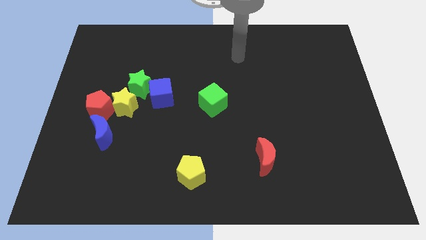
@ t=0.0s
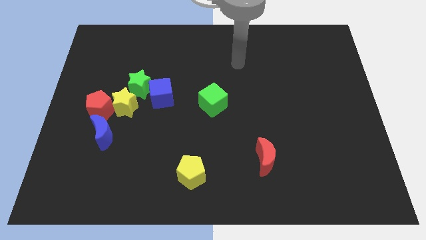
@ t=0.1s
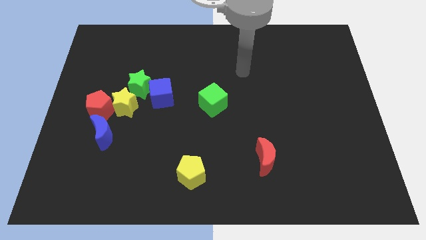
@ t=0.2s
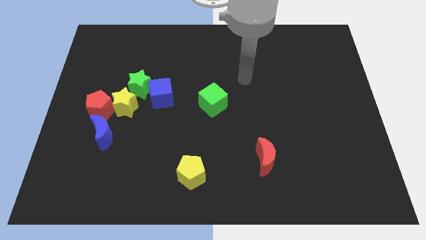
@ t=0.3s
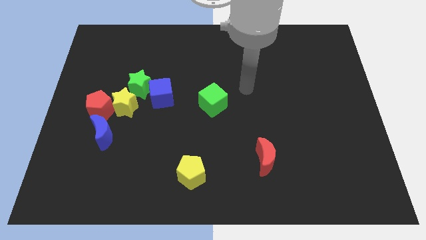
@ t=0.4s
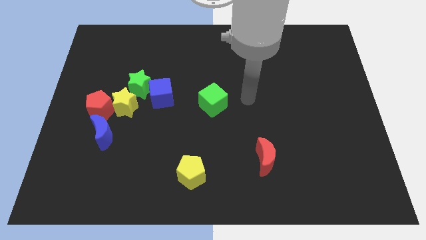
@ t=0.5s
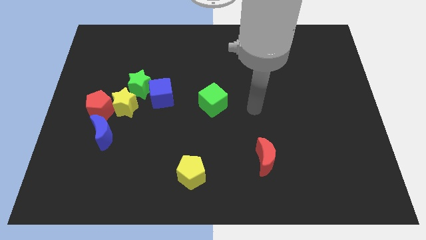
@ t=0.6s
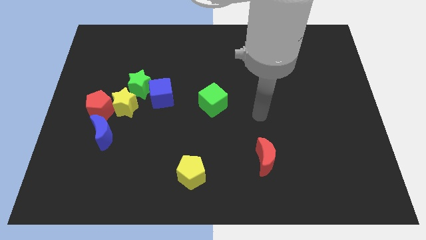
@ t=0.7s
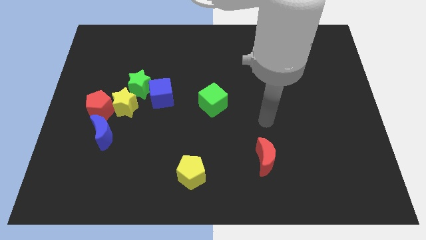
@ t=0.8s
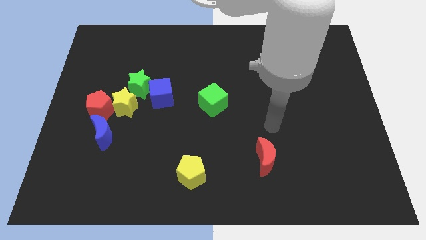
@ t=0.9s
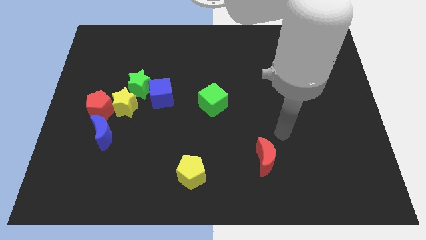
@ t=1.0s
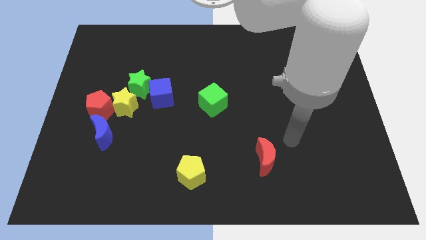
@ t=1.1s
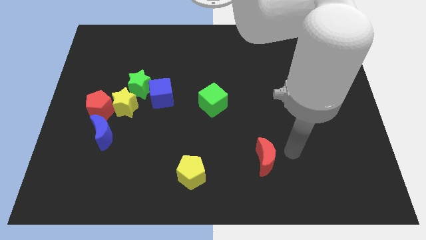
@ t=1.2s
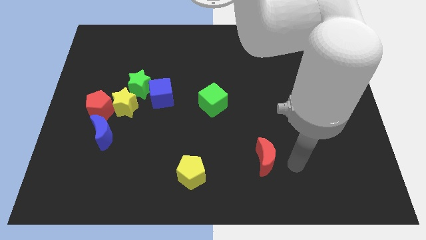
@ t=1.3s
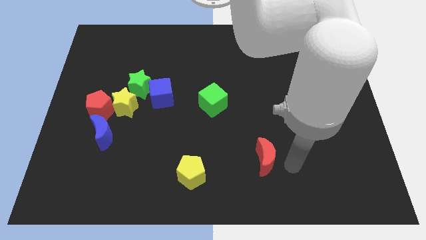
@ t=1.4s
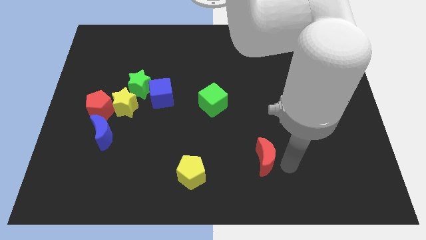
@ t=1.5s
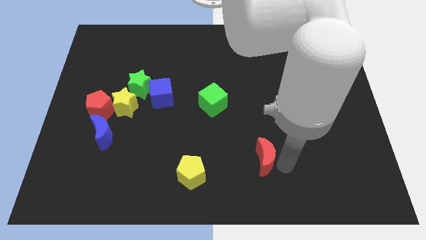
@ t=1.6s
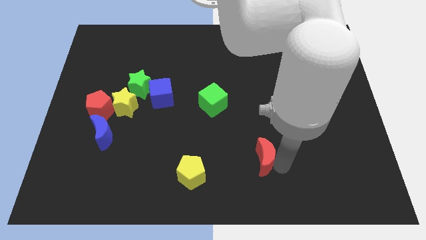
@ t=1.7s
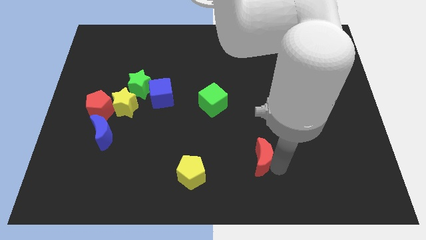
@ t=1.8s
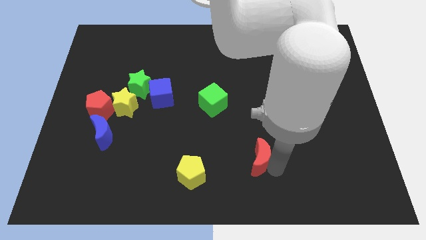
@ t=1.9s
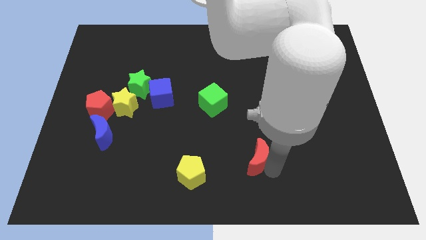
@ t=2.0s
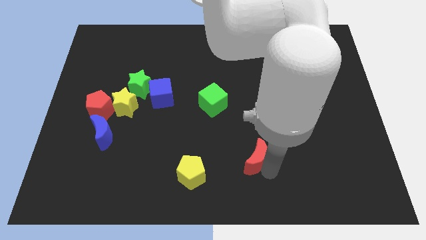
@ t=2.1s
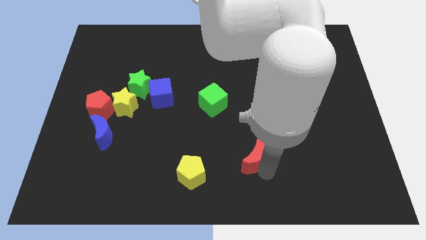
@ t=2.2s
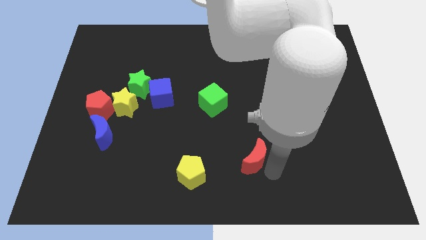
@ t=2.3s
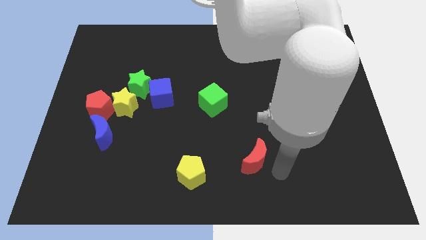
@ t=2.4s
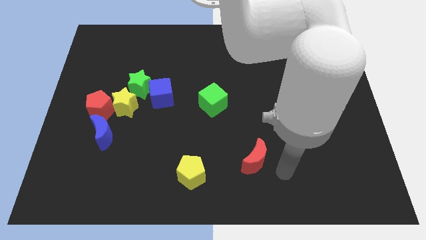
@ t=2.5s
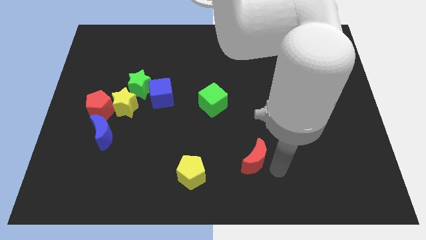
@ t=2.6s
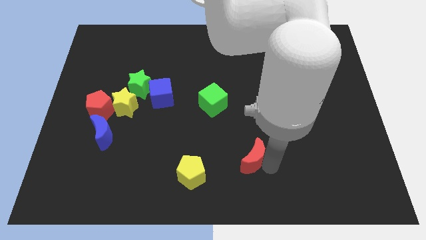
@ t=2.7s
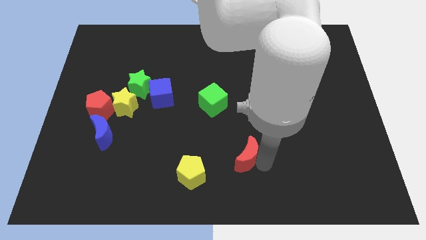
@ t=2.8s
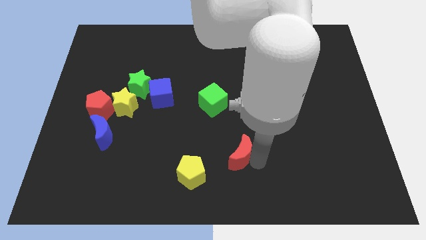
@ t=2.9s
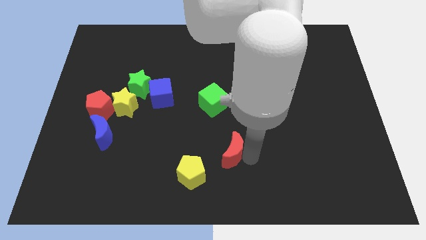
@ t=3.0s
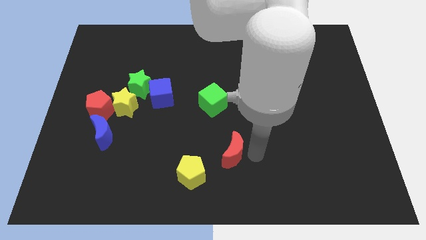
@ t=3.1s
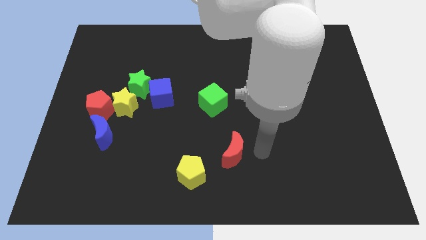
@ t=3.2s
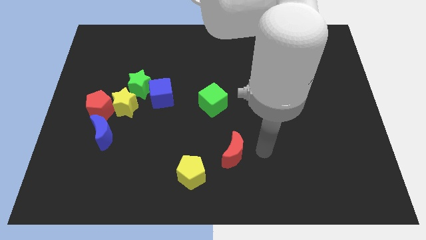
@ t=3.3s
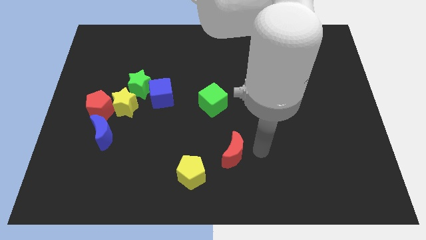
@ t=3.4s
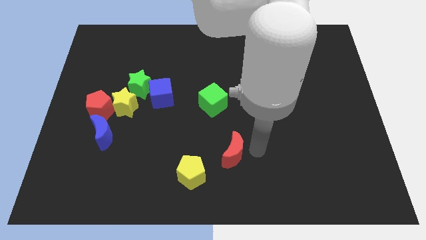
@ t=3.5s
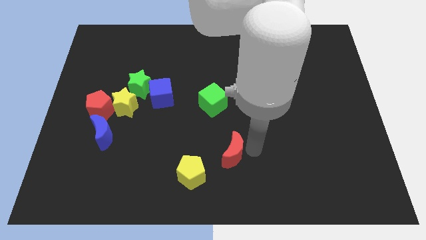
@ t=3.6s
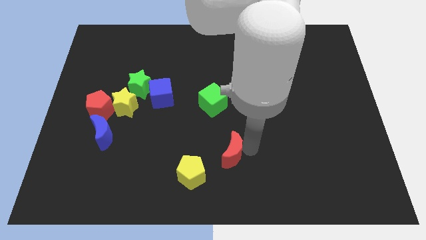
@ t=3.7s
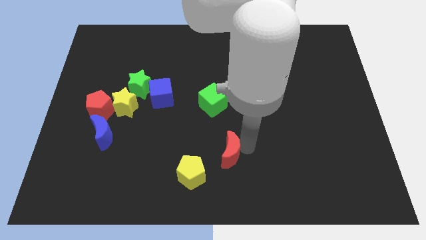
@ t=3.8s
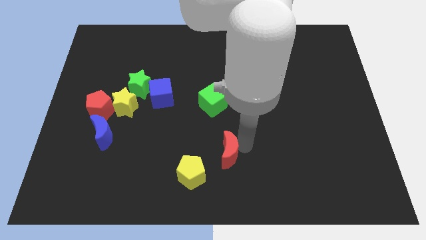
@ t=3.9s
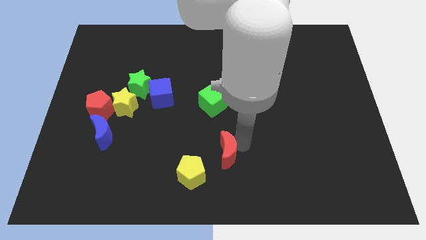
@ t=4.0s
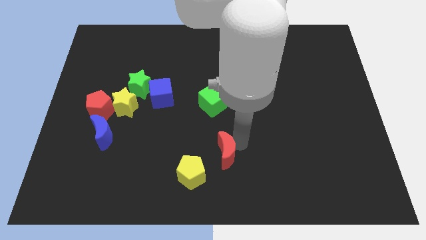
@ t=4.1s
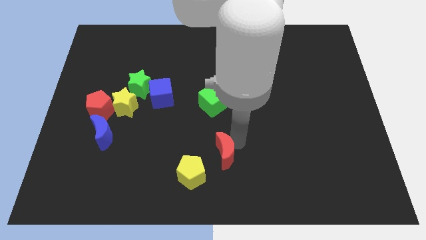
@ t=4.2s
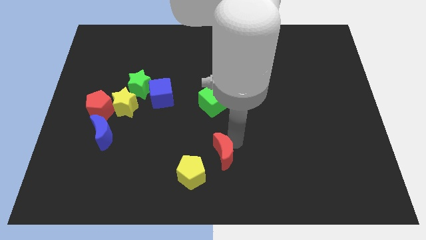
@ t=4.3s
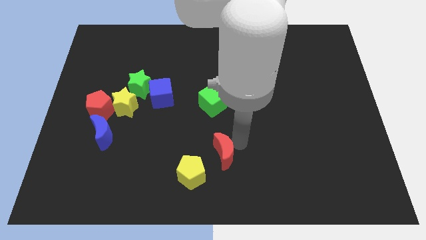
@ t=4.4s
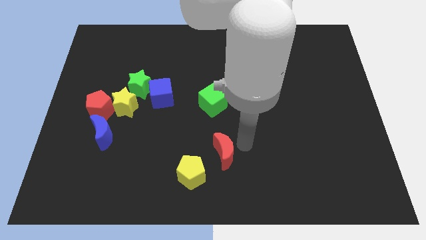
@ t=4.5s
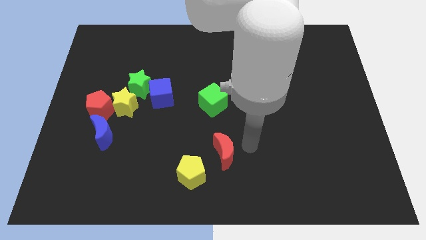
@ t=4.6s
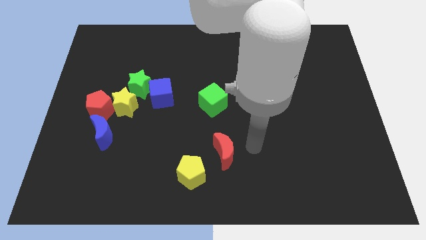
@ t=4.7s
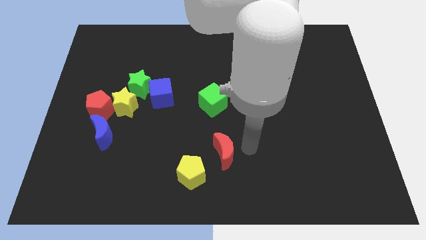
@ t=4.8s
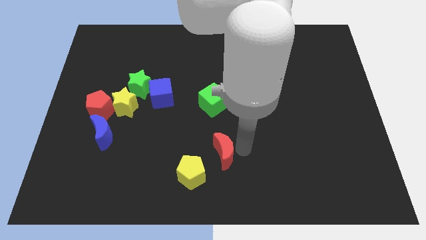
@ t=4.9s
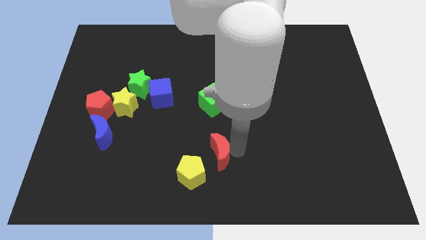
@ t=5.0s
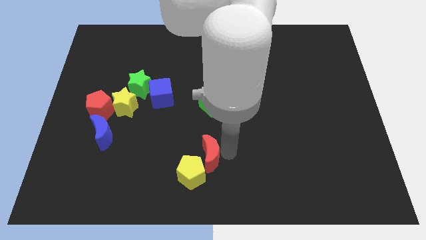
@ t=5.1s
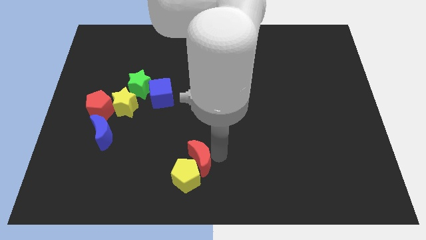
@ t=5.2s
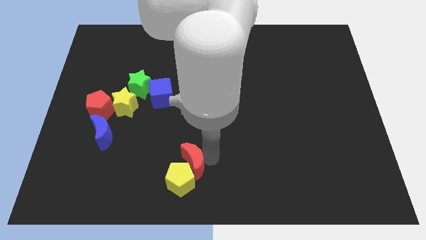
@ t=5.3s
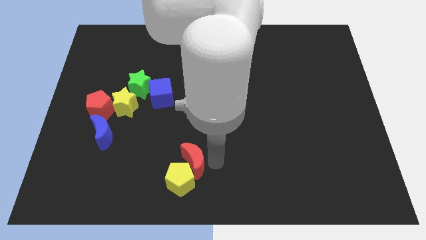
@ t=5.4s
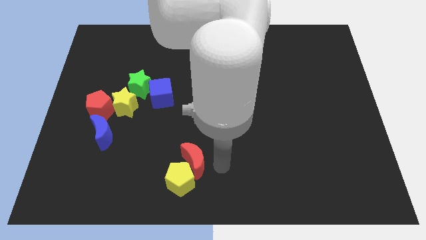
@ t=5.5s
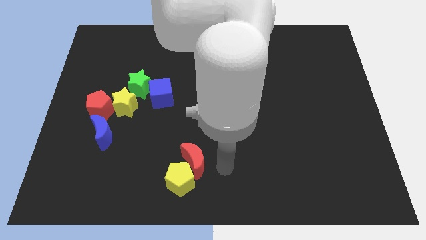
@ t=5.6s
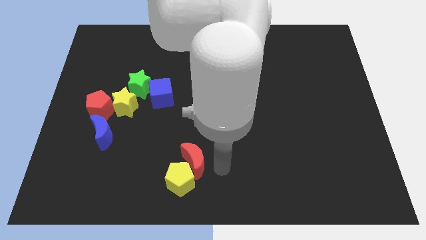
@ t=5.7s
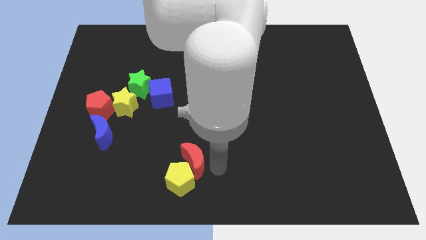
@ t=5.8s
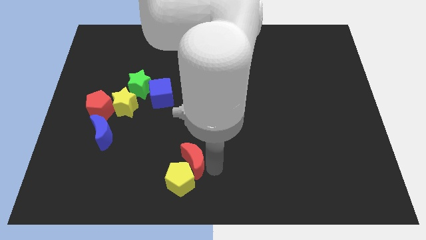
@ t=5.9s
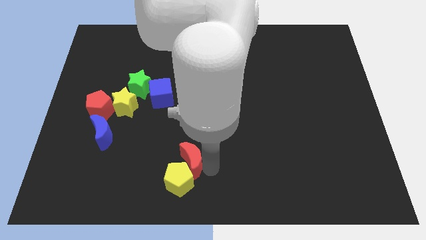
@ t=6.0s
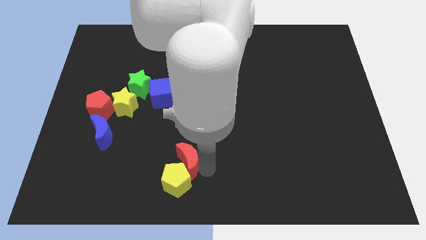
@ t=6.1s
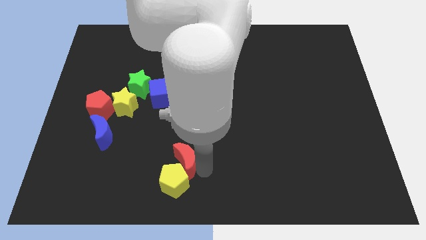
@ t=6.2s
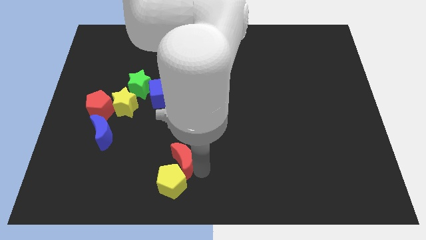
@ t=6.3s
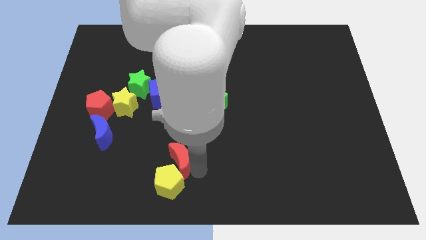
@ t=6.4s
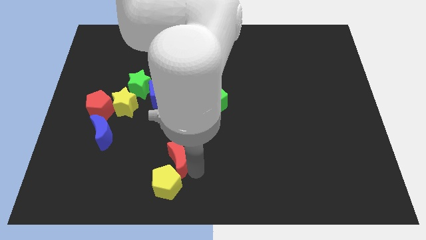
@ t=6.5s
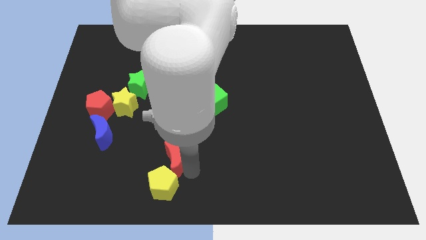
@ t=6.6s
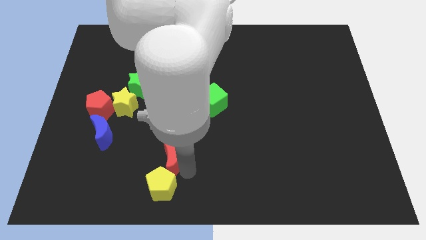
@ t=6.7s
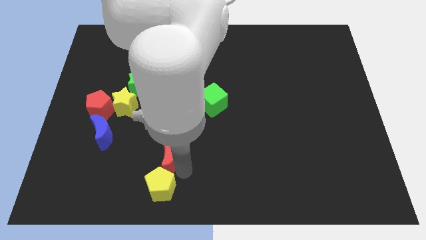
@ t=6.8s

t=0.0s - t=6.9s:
push the red moon left

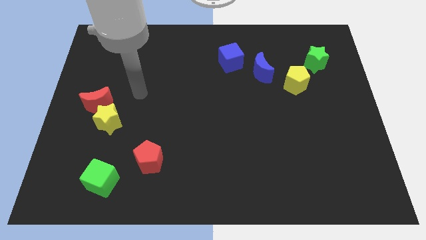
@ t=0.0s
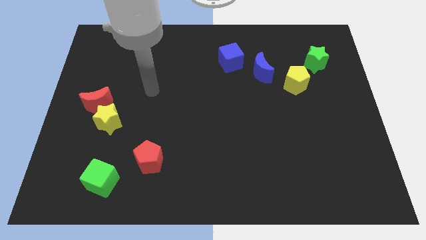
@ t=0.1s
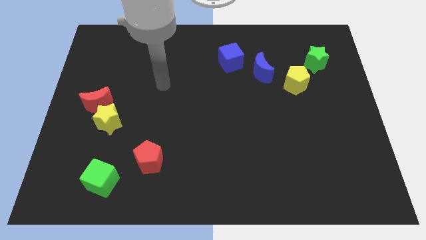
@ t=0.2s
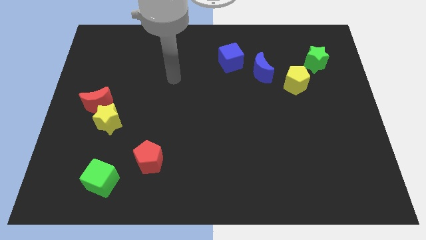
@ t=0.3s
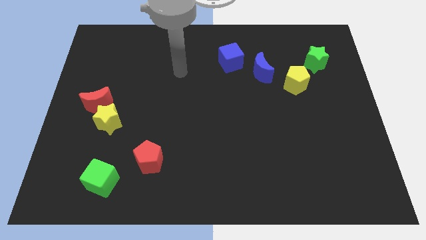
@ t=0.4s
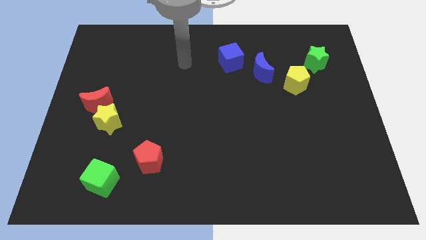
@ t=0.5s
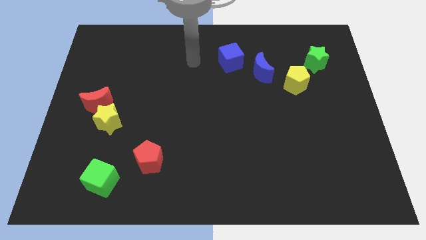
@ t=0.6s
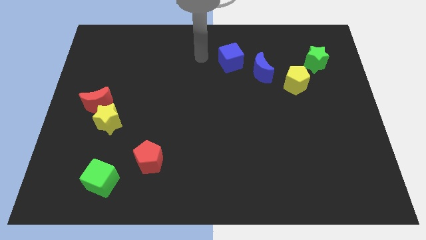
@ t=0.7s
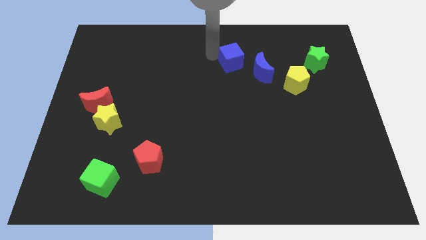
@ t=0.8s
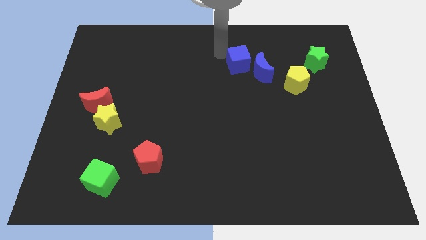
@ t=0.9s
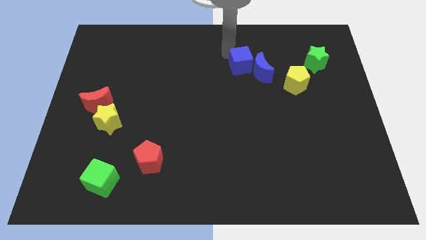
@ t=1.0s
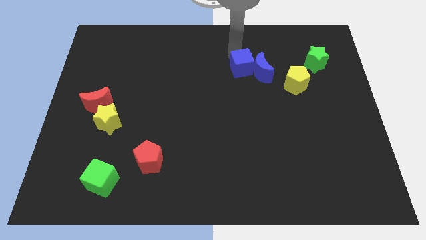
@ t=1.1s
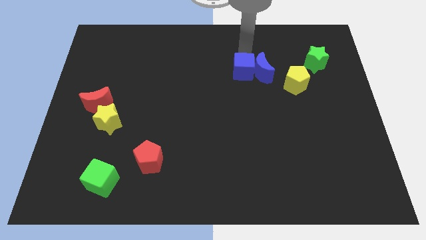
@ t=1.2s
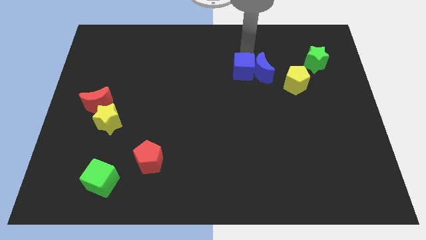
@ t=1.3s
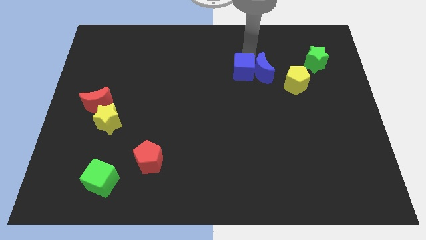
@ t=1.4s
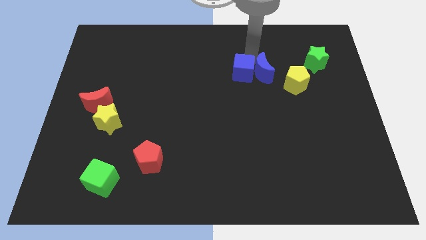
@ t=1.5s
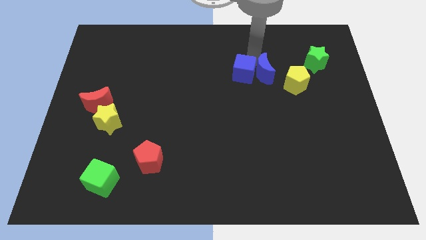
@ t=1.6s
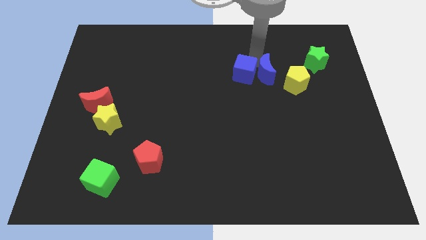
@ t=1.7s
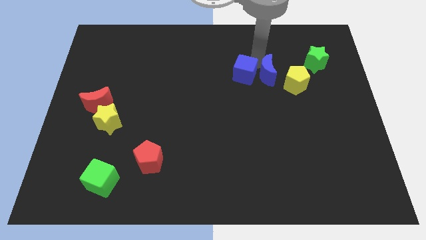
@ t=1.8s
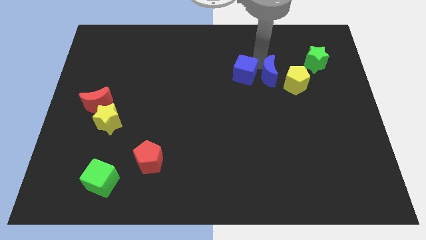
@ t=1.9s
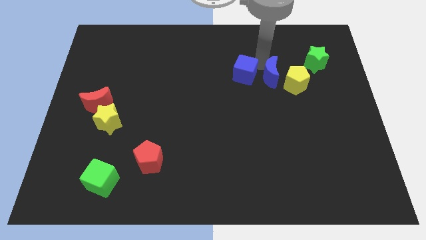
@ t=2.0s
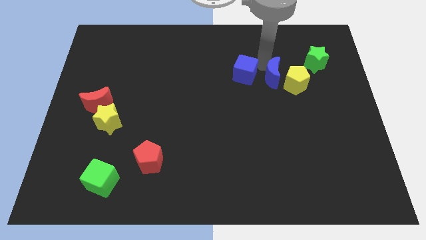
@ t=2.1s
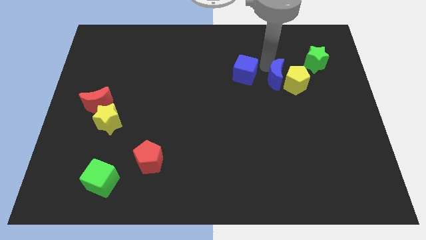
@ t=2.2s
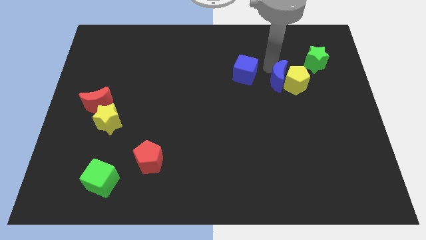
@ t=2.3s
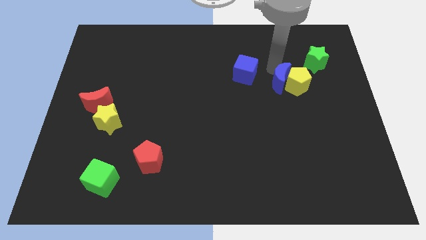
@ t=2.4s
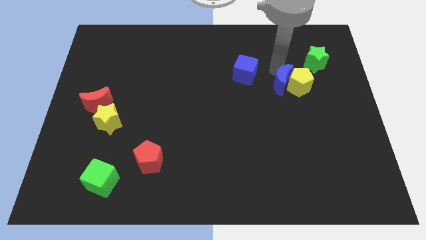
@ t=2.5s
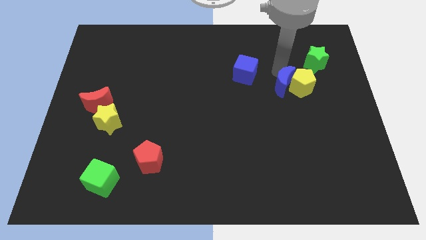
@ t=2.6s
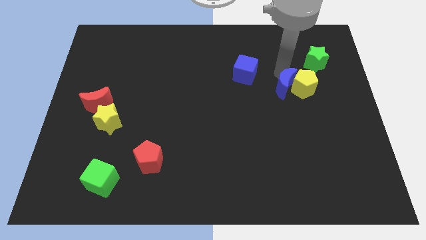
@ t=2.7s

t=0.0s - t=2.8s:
slightly push the blue moon downwards and then right
